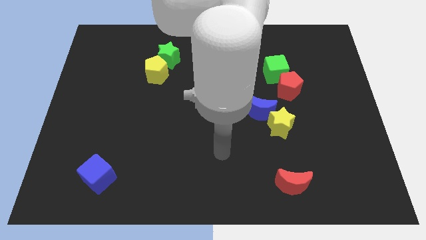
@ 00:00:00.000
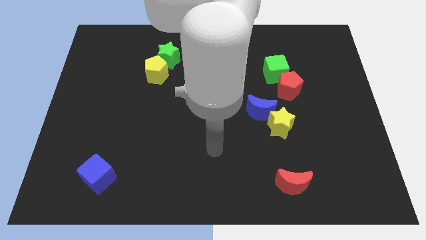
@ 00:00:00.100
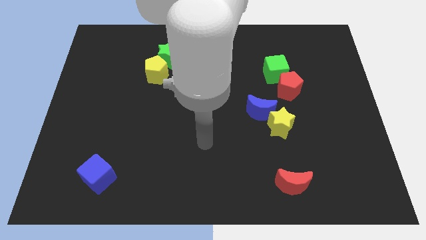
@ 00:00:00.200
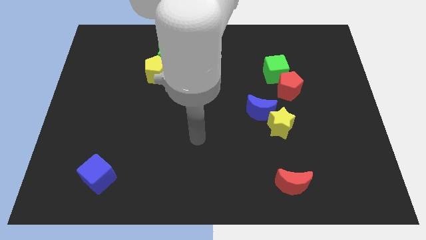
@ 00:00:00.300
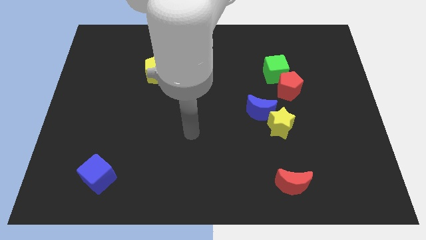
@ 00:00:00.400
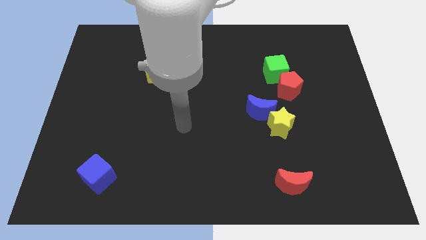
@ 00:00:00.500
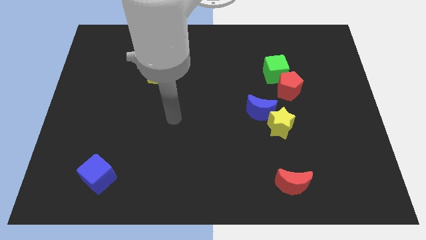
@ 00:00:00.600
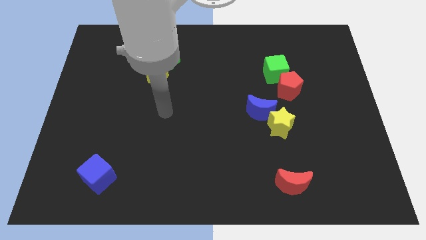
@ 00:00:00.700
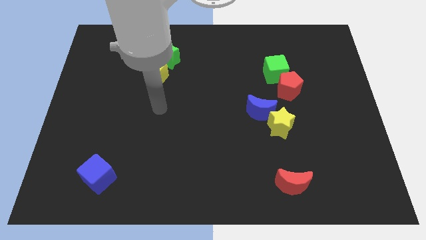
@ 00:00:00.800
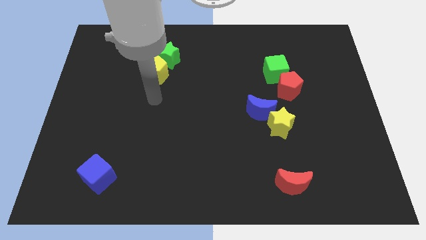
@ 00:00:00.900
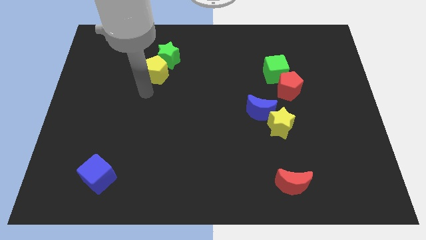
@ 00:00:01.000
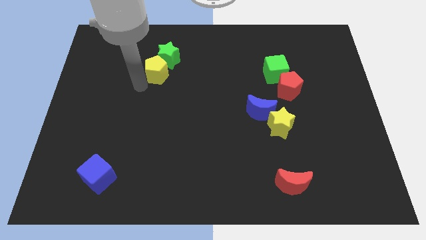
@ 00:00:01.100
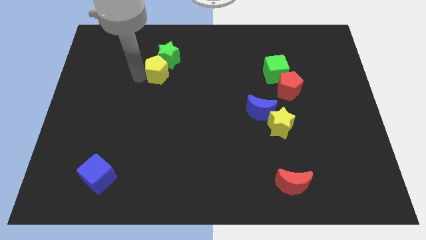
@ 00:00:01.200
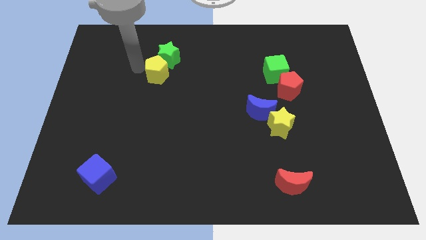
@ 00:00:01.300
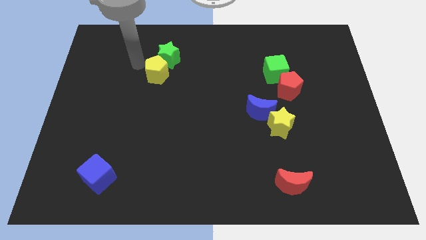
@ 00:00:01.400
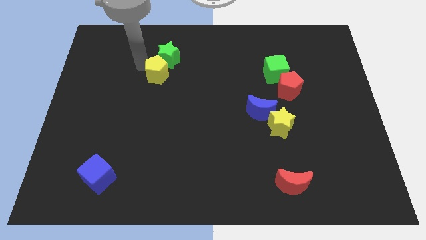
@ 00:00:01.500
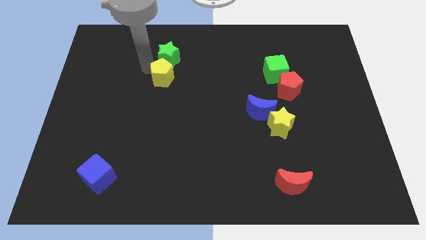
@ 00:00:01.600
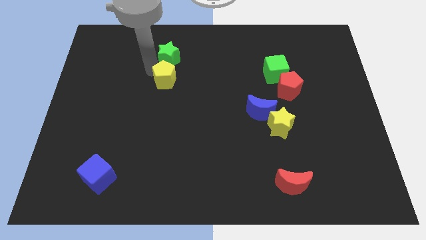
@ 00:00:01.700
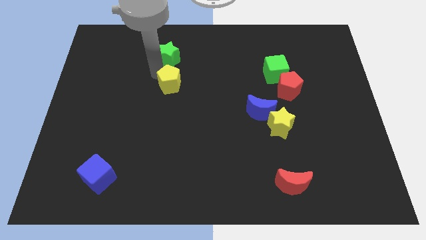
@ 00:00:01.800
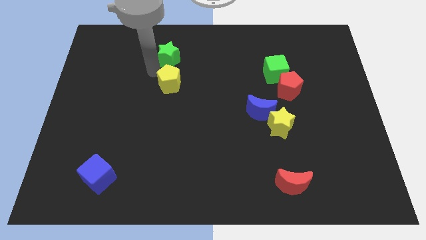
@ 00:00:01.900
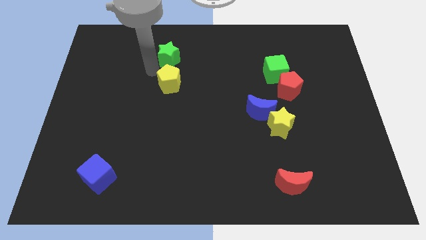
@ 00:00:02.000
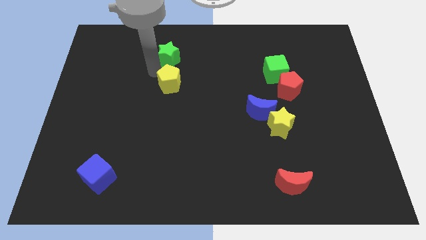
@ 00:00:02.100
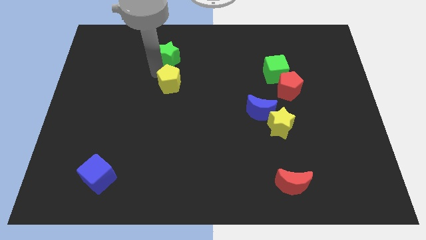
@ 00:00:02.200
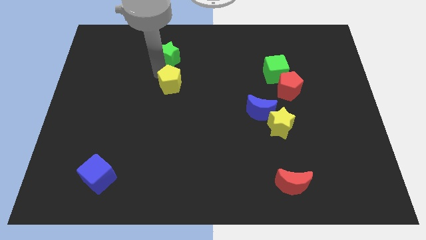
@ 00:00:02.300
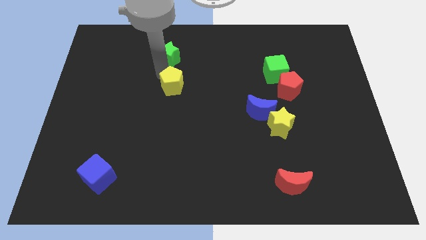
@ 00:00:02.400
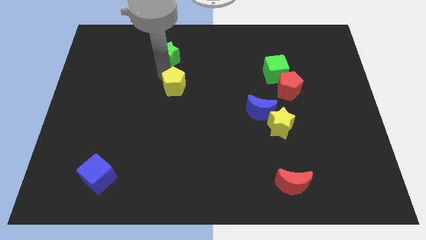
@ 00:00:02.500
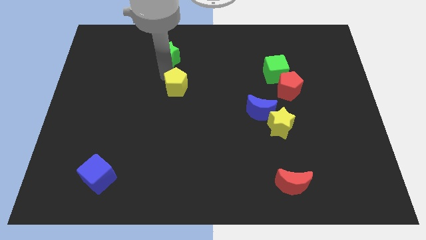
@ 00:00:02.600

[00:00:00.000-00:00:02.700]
push the yellow pentagon somewhat downwards and right

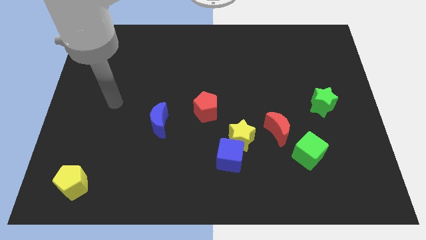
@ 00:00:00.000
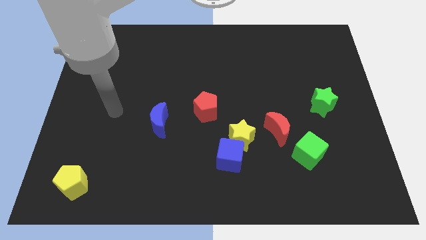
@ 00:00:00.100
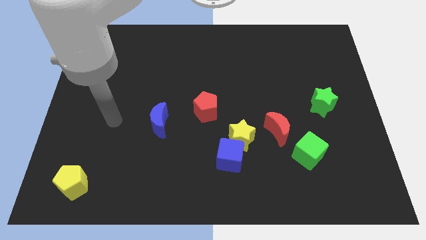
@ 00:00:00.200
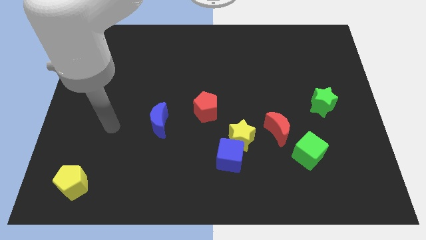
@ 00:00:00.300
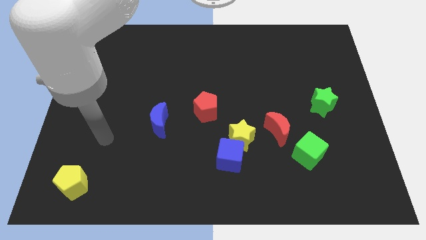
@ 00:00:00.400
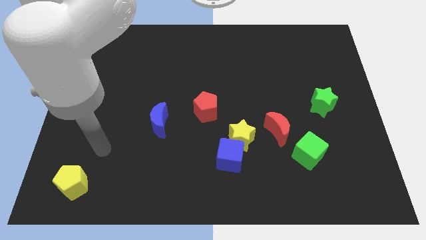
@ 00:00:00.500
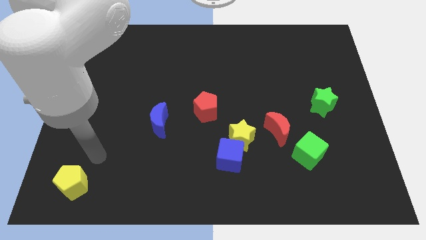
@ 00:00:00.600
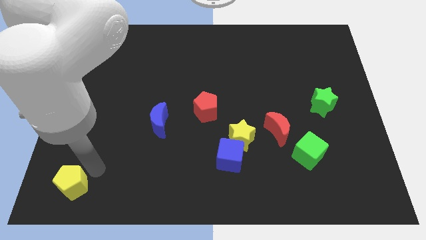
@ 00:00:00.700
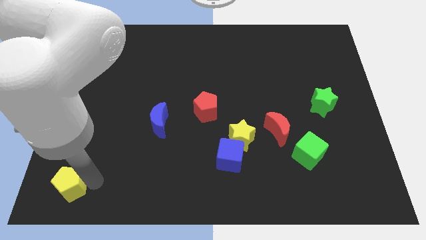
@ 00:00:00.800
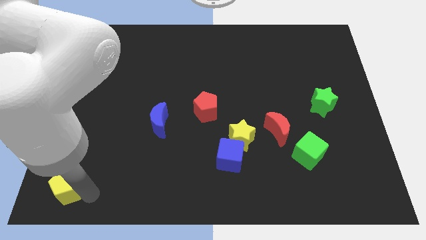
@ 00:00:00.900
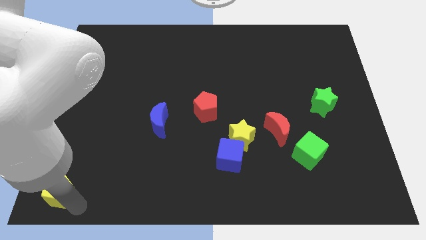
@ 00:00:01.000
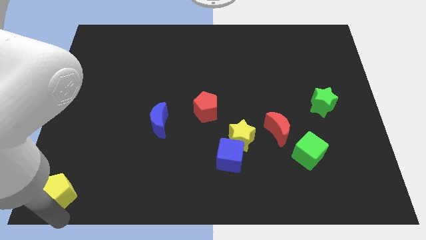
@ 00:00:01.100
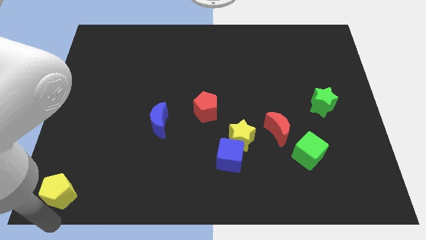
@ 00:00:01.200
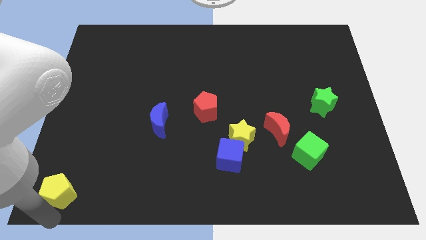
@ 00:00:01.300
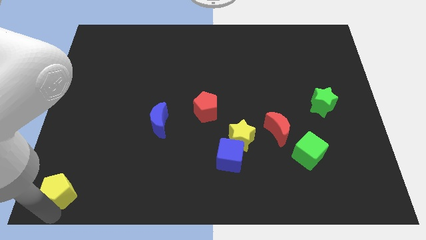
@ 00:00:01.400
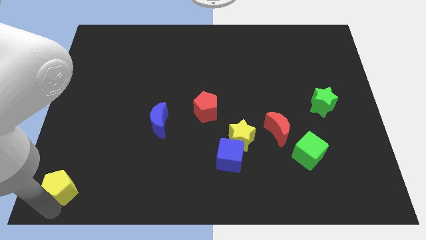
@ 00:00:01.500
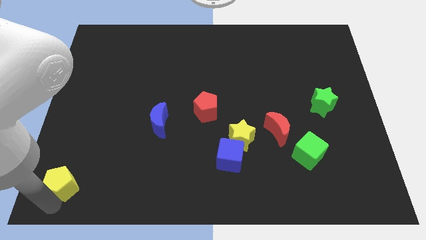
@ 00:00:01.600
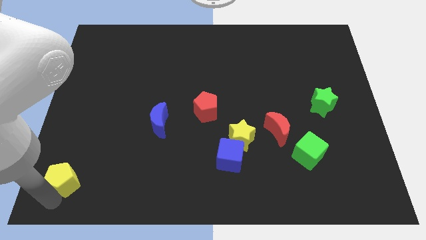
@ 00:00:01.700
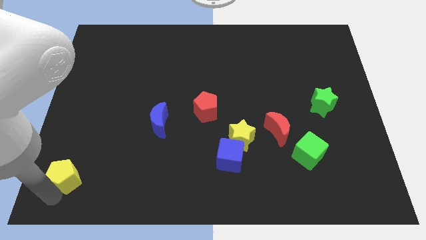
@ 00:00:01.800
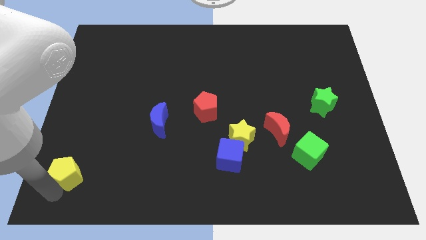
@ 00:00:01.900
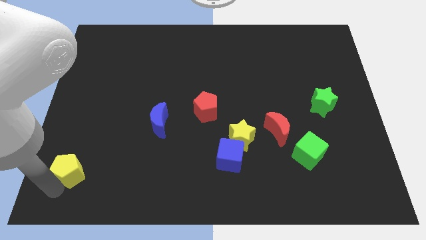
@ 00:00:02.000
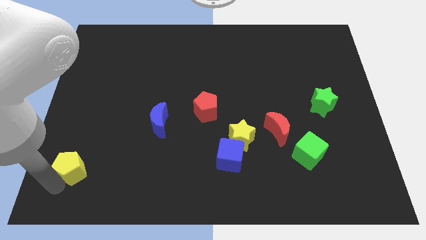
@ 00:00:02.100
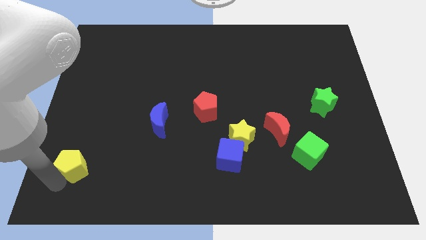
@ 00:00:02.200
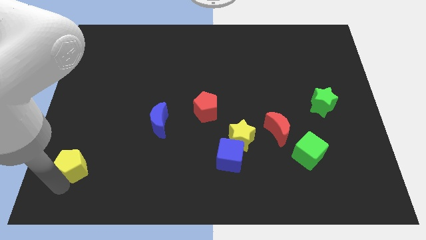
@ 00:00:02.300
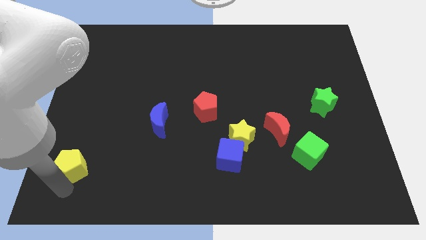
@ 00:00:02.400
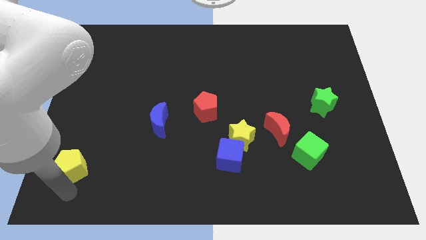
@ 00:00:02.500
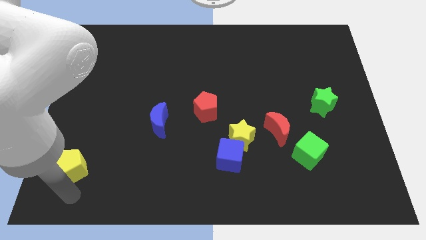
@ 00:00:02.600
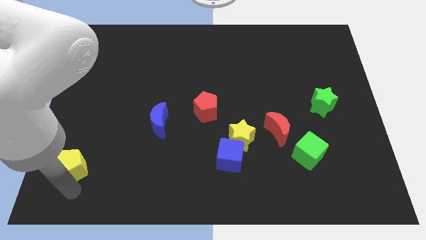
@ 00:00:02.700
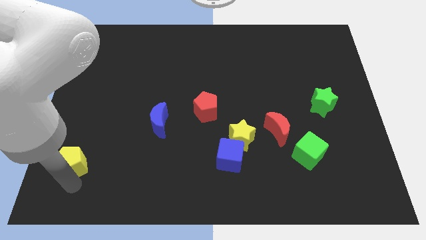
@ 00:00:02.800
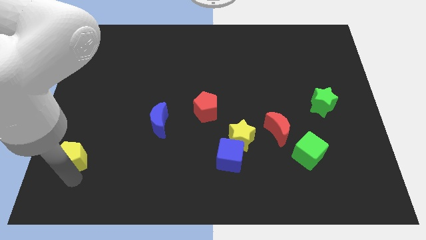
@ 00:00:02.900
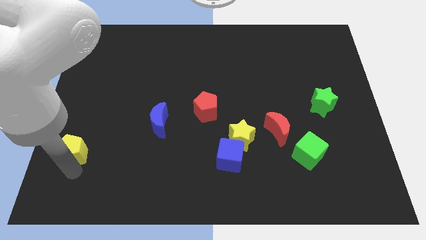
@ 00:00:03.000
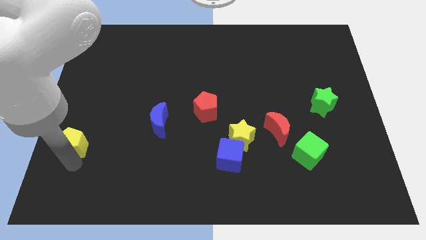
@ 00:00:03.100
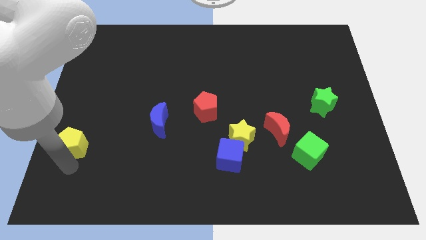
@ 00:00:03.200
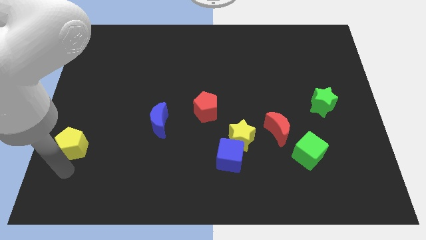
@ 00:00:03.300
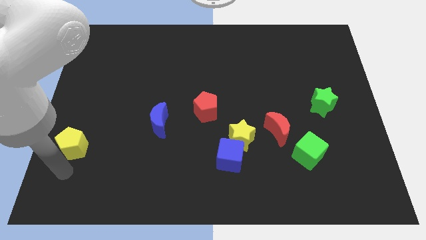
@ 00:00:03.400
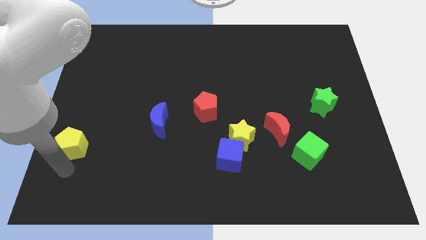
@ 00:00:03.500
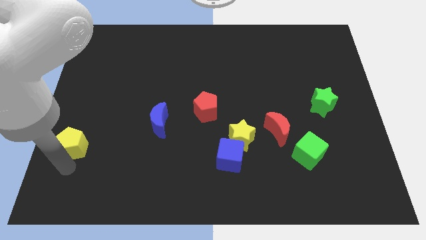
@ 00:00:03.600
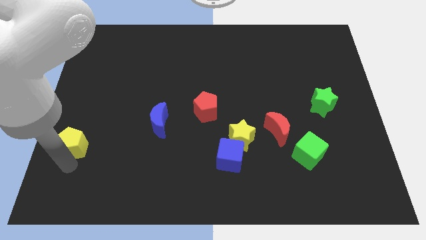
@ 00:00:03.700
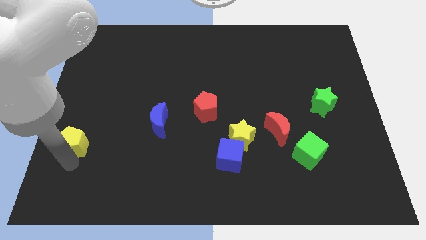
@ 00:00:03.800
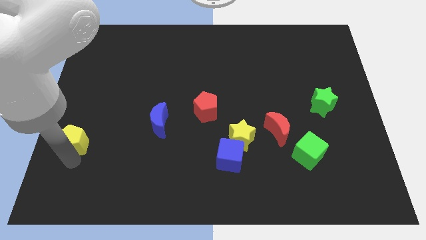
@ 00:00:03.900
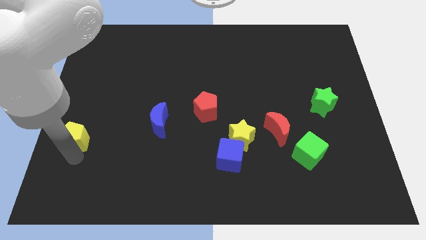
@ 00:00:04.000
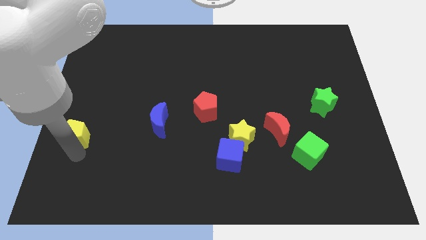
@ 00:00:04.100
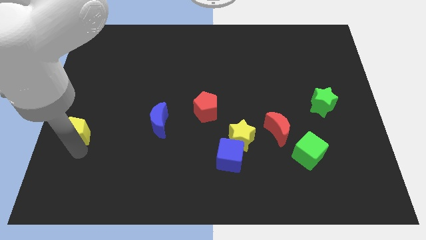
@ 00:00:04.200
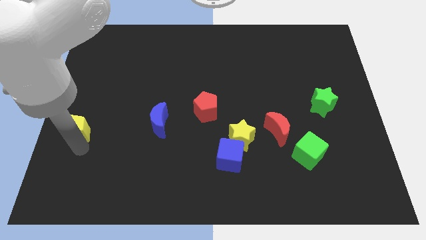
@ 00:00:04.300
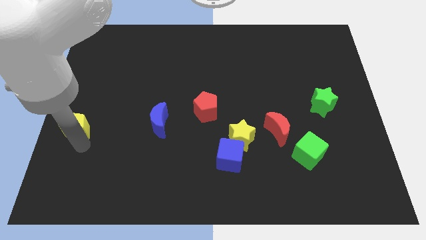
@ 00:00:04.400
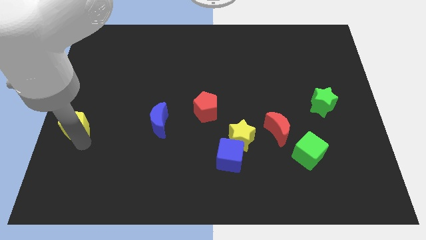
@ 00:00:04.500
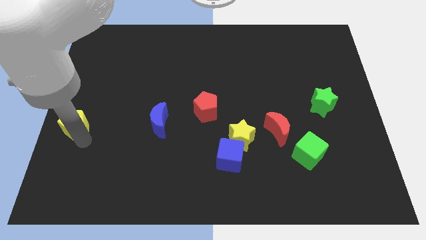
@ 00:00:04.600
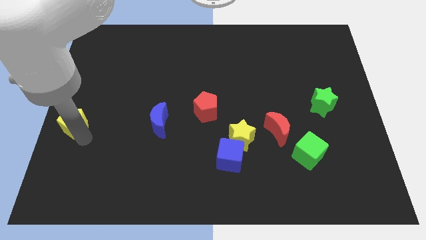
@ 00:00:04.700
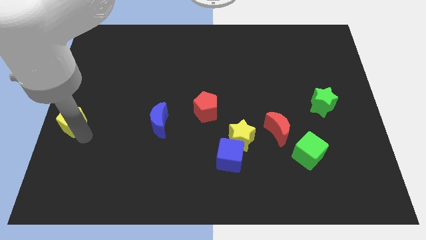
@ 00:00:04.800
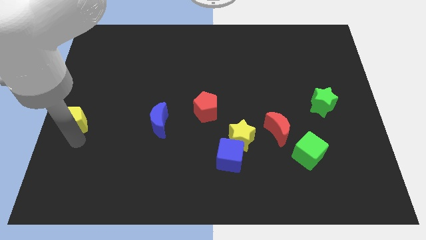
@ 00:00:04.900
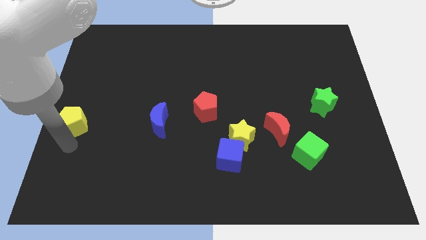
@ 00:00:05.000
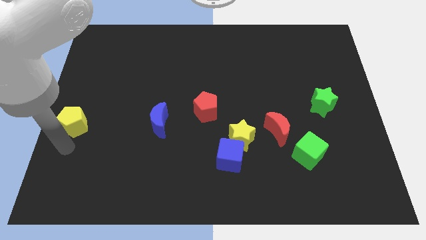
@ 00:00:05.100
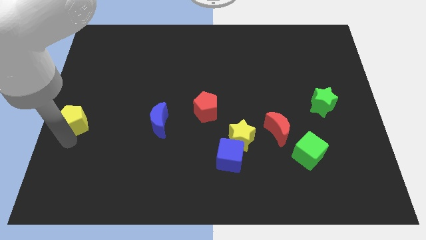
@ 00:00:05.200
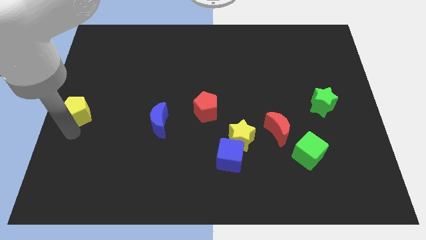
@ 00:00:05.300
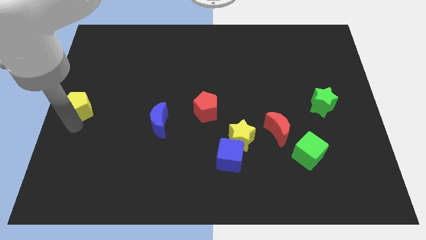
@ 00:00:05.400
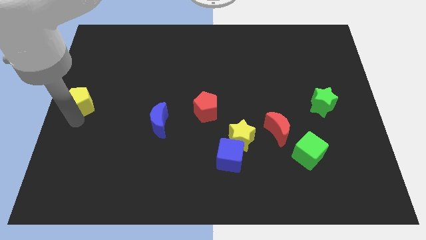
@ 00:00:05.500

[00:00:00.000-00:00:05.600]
slide the yellow pentagon upwards
